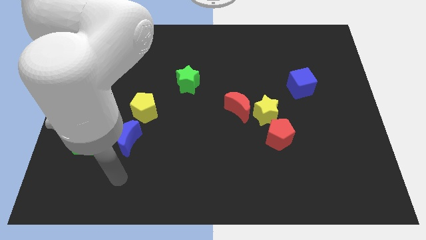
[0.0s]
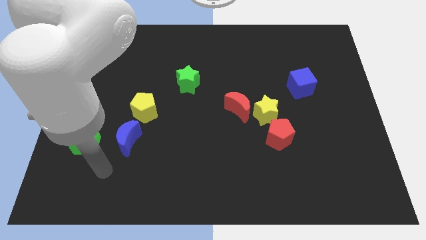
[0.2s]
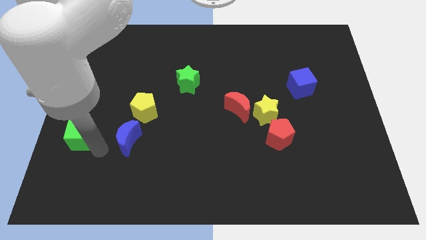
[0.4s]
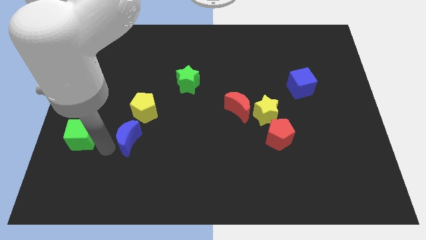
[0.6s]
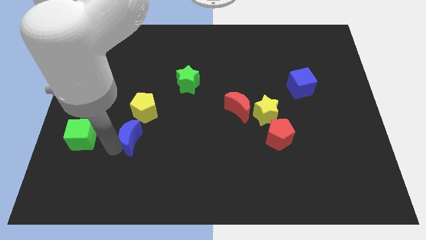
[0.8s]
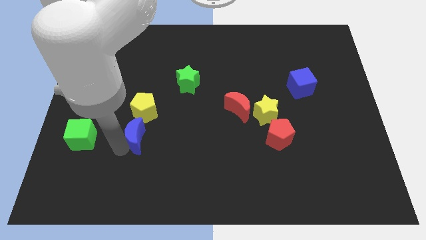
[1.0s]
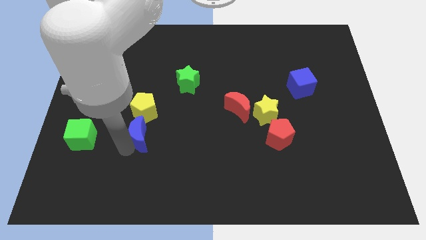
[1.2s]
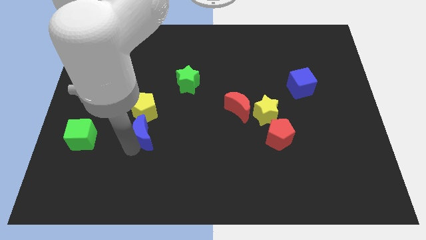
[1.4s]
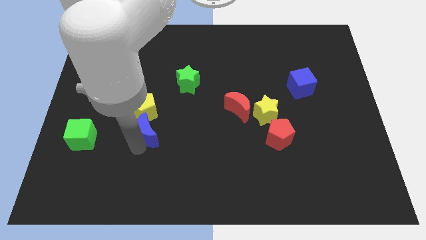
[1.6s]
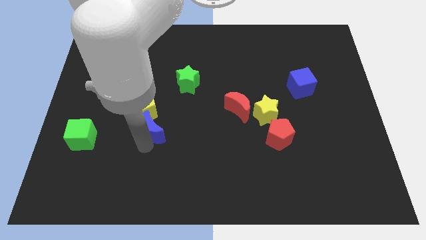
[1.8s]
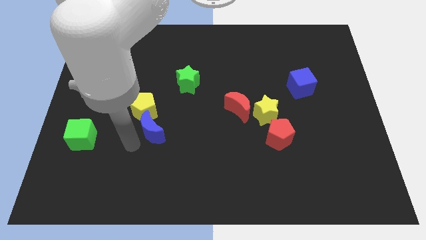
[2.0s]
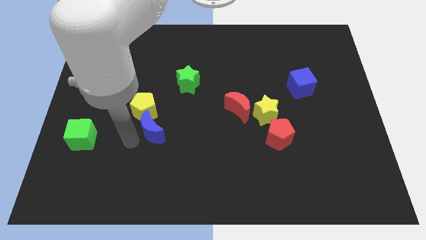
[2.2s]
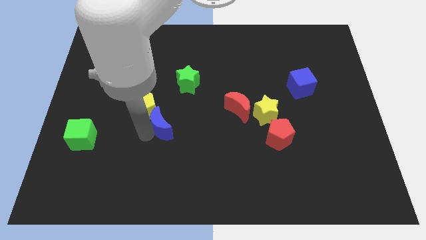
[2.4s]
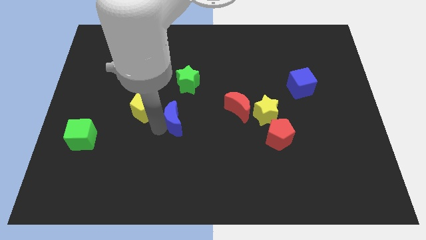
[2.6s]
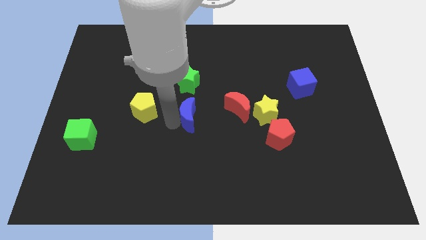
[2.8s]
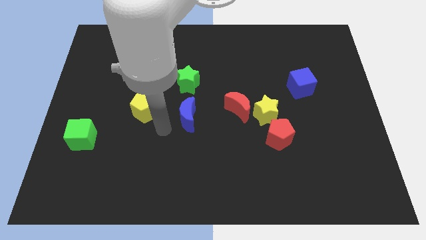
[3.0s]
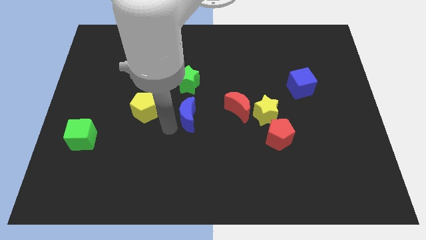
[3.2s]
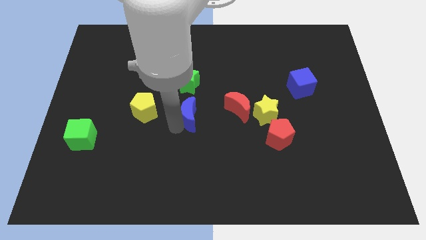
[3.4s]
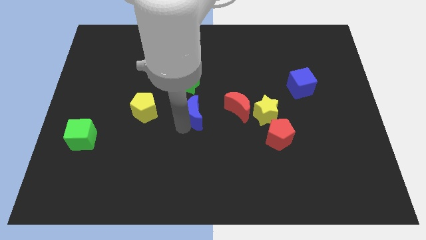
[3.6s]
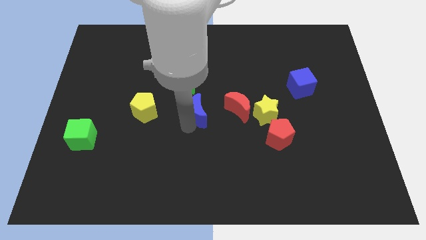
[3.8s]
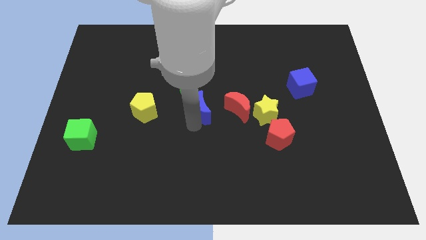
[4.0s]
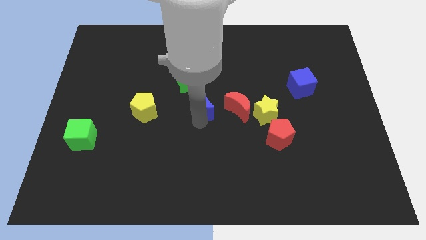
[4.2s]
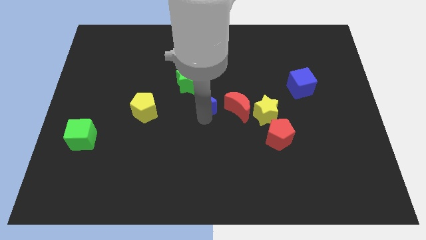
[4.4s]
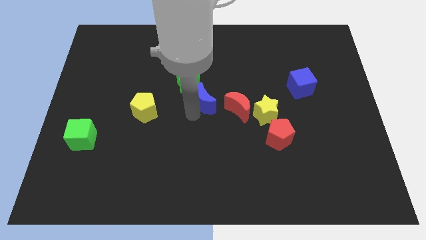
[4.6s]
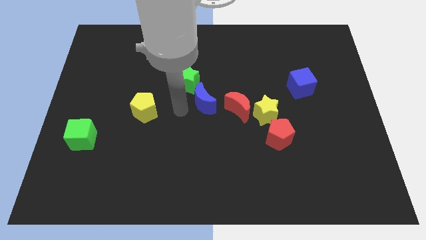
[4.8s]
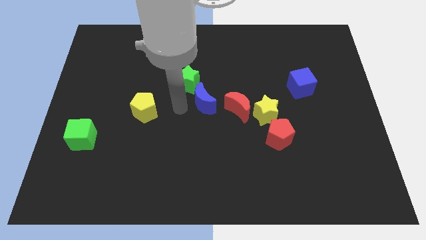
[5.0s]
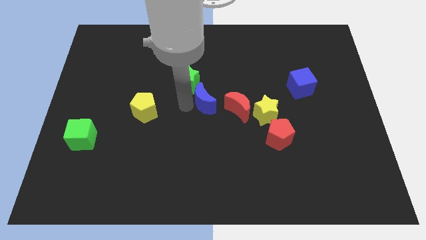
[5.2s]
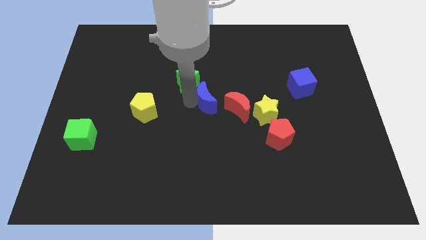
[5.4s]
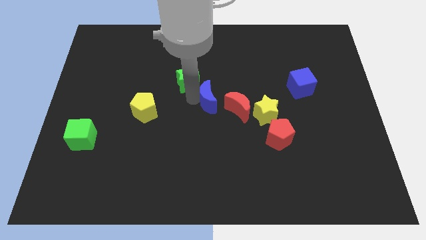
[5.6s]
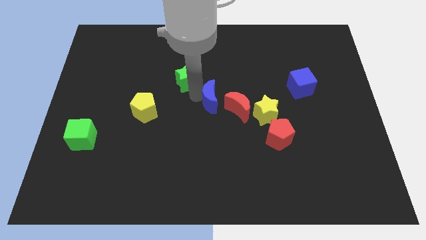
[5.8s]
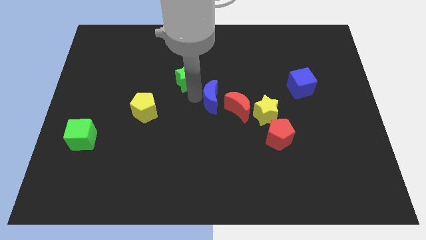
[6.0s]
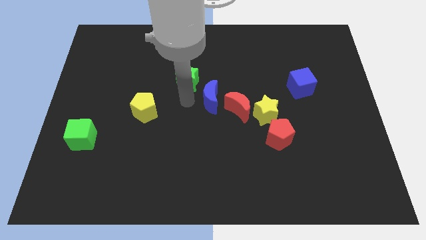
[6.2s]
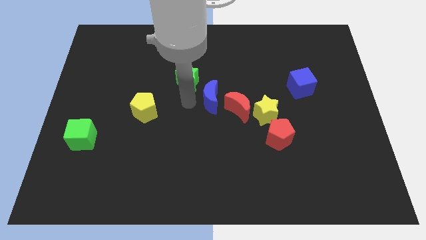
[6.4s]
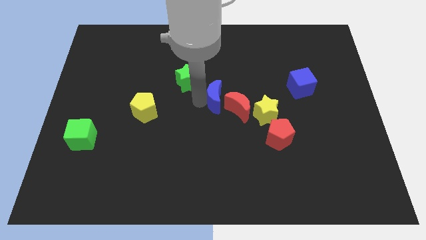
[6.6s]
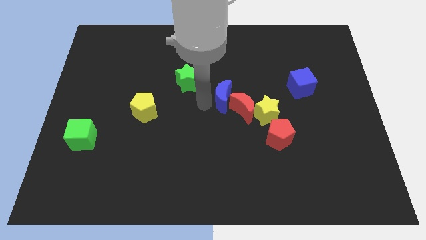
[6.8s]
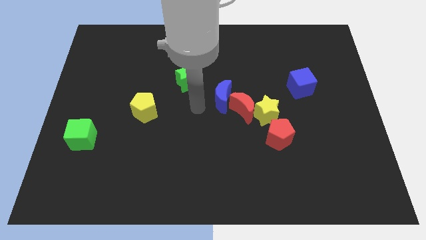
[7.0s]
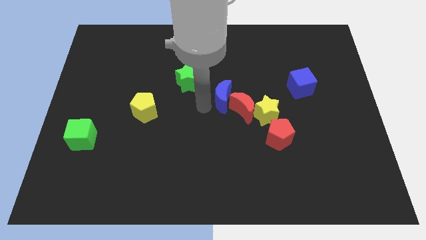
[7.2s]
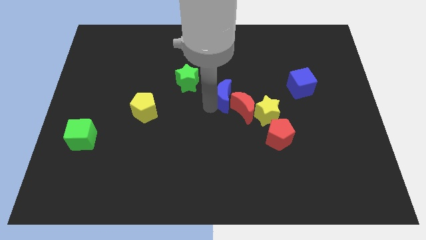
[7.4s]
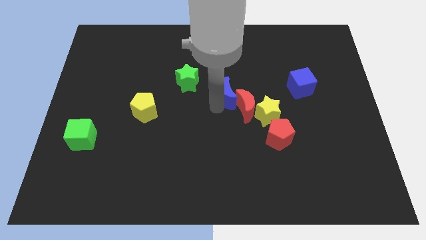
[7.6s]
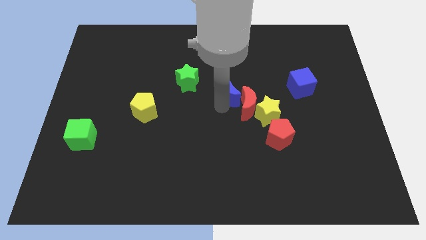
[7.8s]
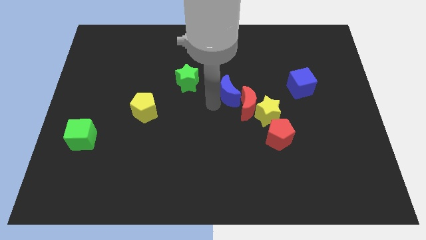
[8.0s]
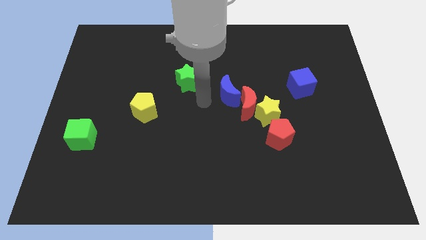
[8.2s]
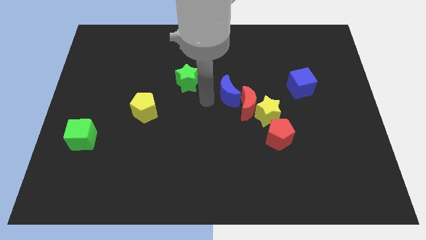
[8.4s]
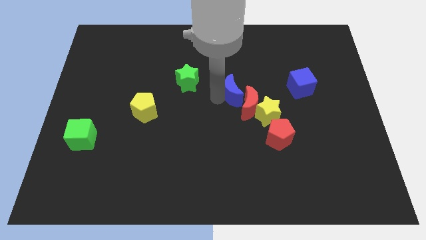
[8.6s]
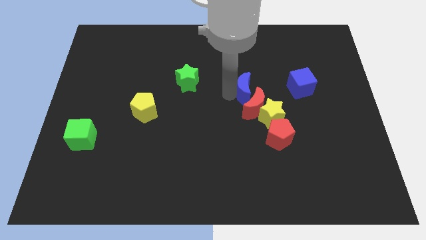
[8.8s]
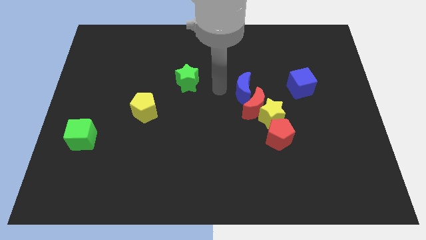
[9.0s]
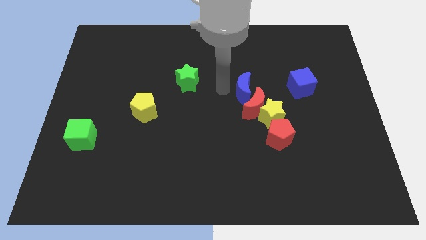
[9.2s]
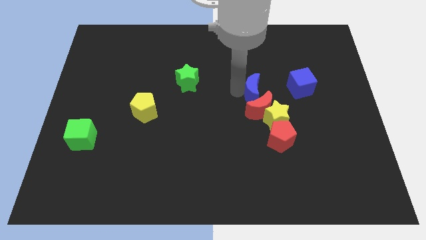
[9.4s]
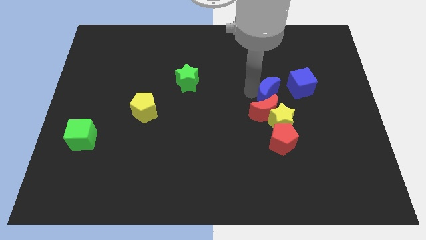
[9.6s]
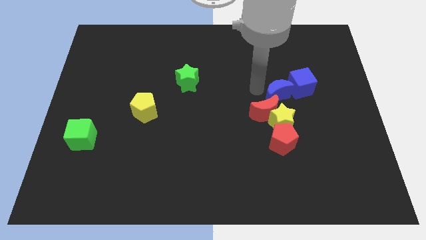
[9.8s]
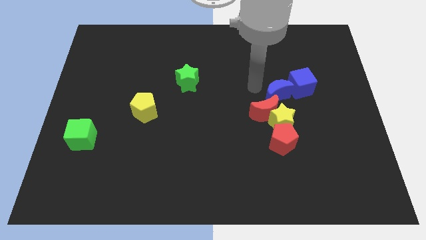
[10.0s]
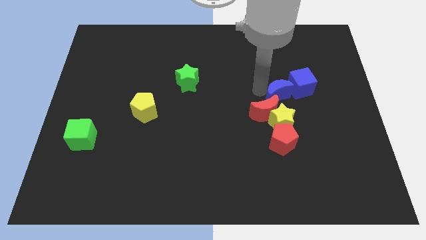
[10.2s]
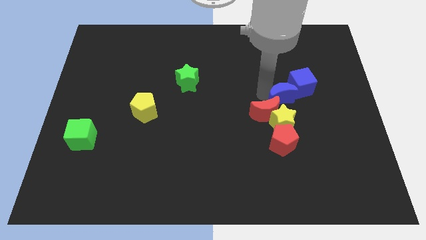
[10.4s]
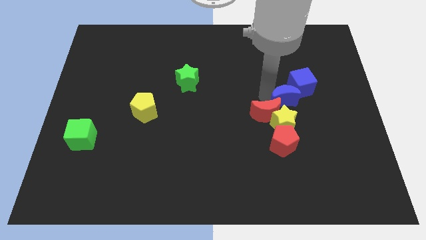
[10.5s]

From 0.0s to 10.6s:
push the blue moon diagonally up and to the right of the yellow star

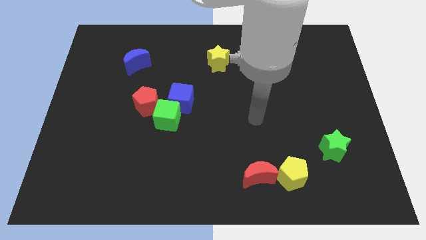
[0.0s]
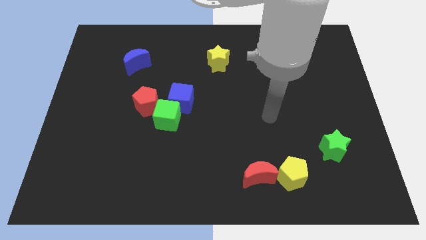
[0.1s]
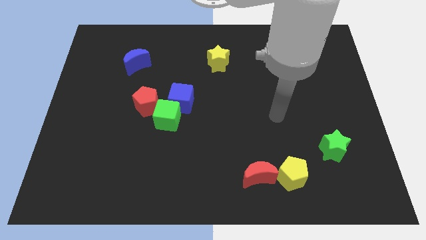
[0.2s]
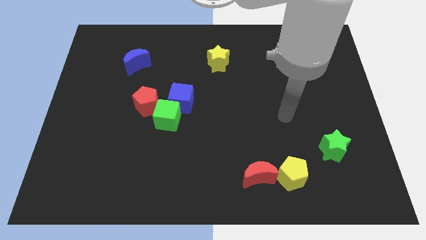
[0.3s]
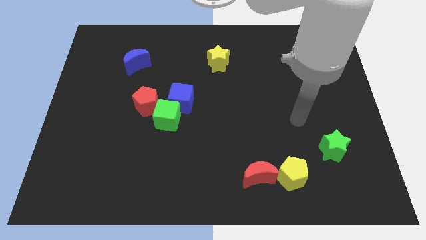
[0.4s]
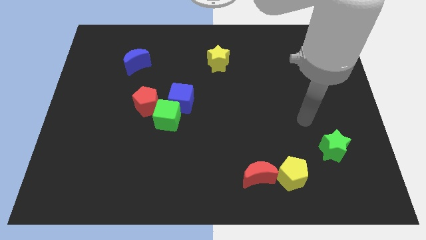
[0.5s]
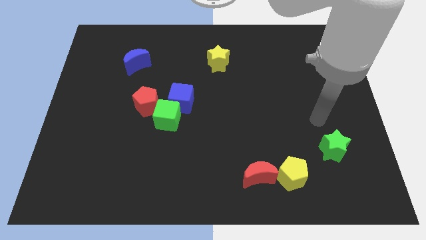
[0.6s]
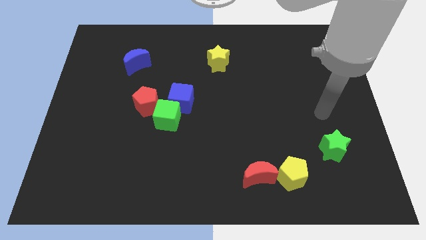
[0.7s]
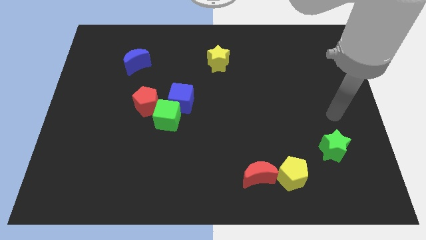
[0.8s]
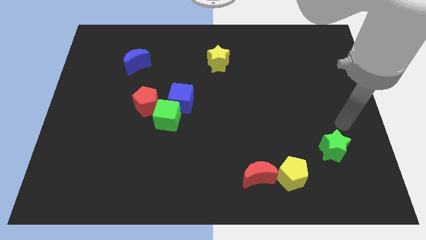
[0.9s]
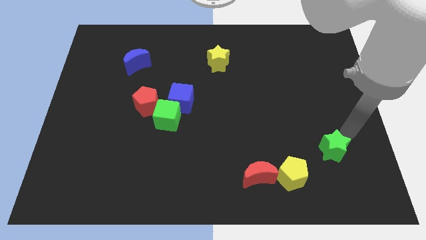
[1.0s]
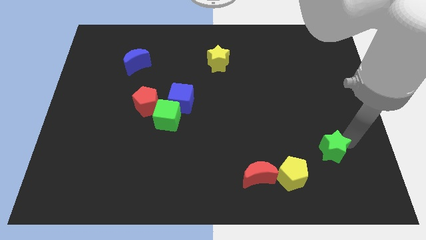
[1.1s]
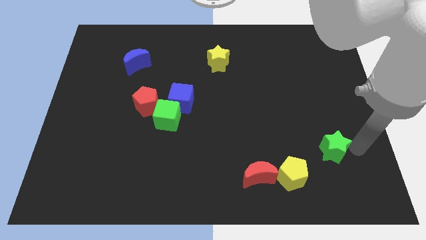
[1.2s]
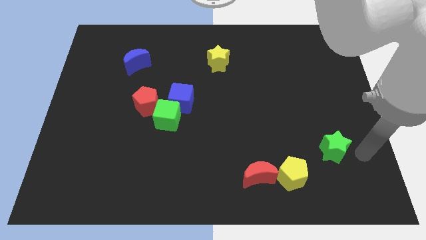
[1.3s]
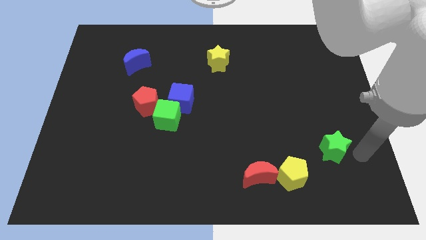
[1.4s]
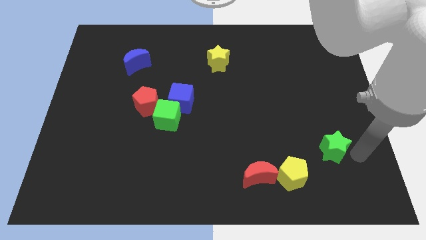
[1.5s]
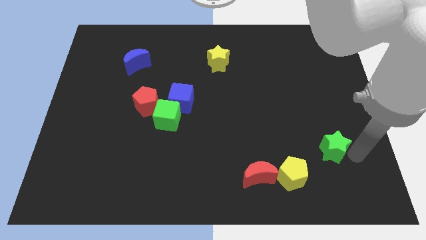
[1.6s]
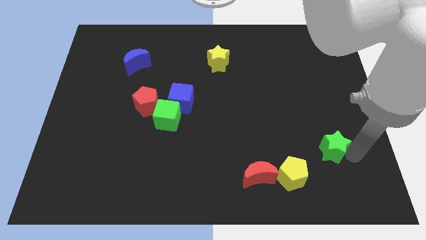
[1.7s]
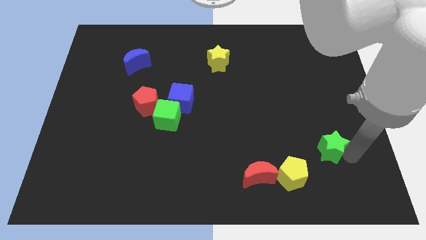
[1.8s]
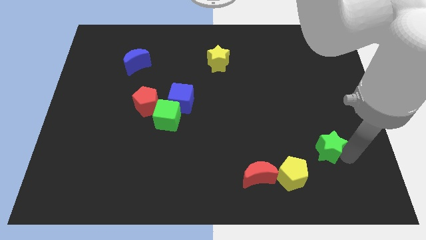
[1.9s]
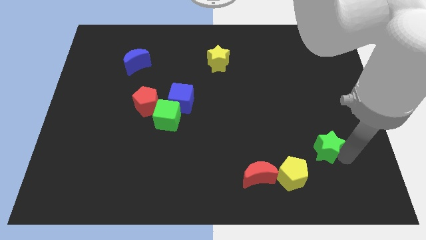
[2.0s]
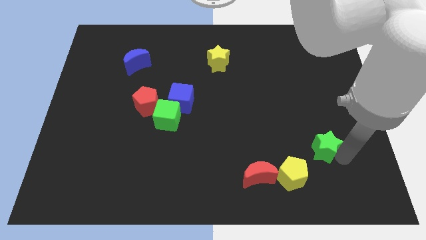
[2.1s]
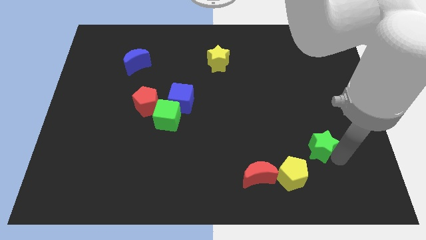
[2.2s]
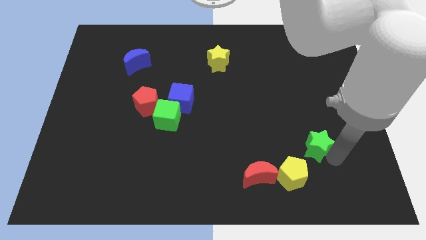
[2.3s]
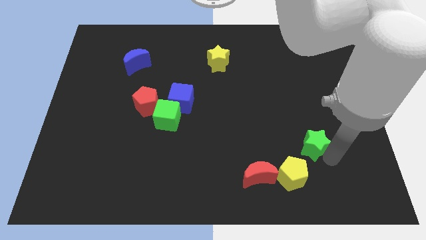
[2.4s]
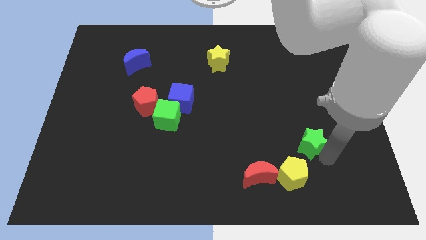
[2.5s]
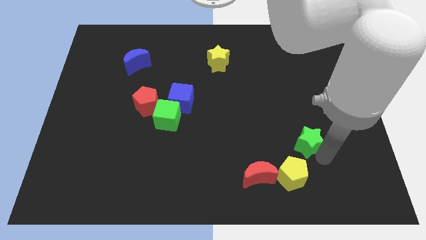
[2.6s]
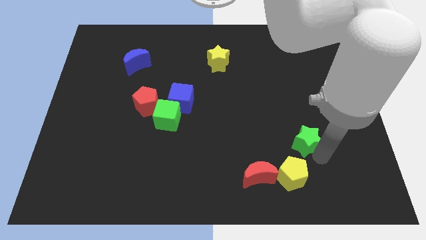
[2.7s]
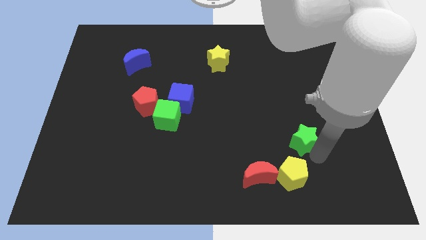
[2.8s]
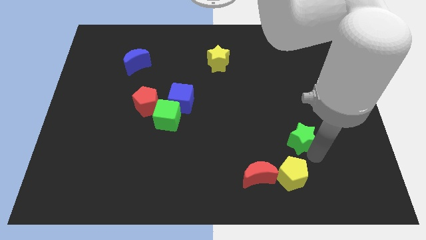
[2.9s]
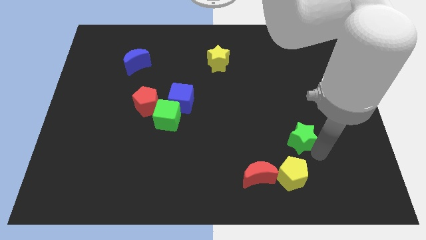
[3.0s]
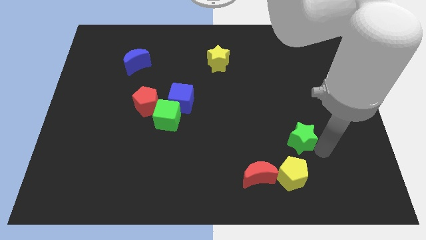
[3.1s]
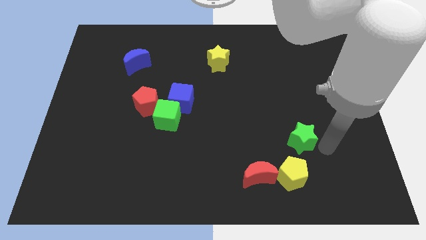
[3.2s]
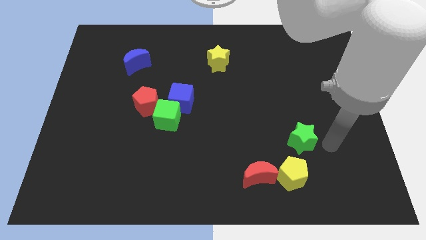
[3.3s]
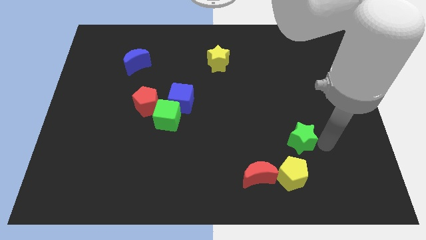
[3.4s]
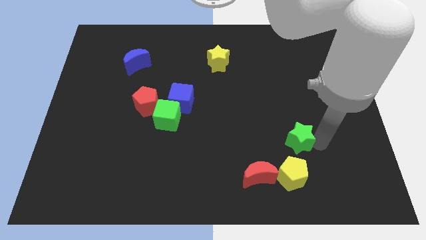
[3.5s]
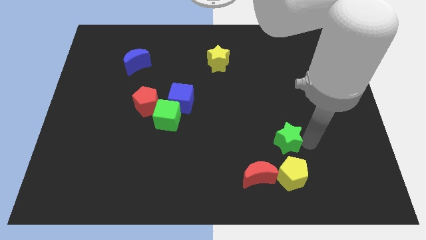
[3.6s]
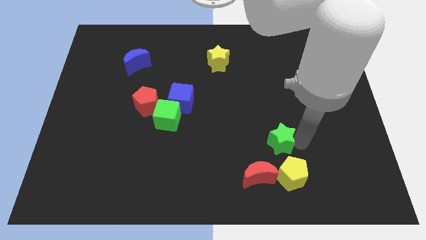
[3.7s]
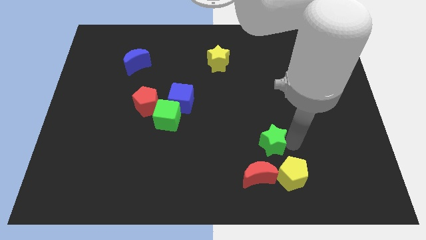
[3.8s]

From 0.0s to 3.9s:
slide the green star above the red moon
